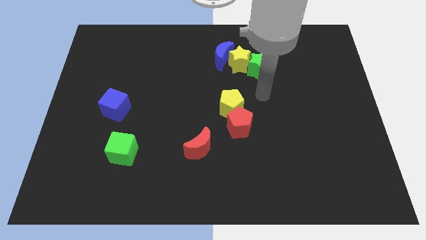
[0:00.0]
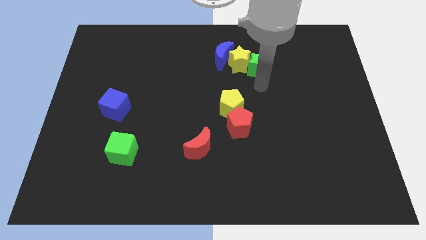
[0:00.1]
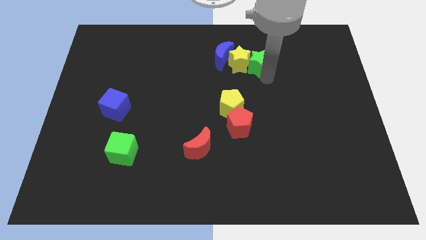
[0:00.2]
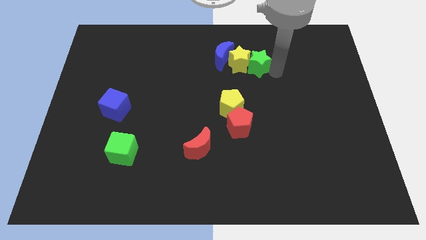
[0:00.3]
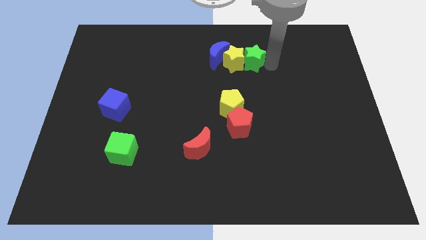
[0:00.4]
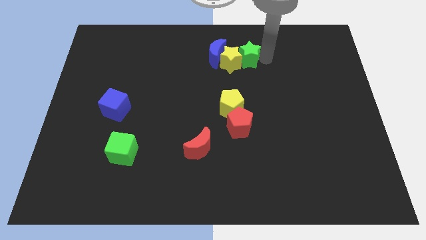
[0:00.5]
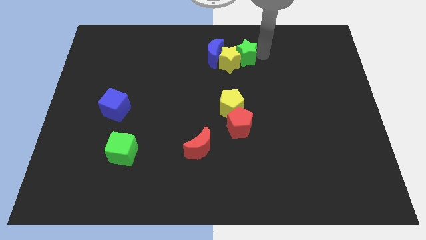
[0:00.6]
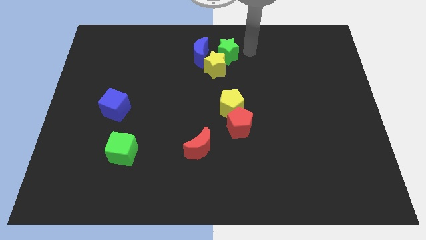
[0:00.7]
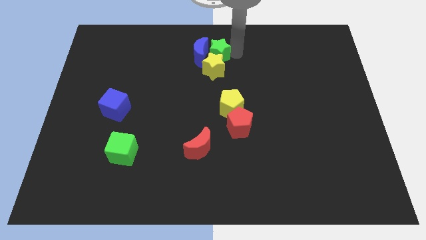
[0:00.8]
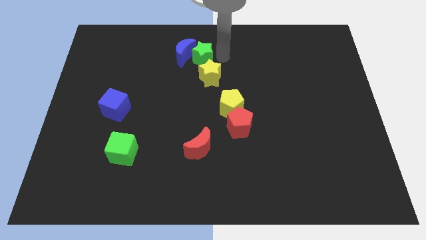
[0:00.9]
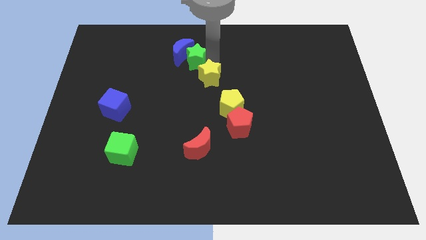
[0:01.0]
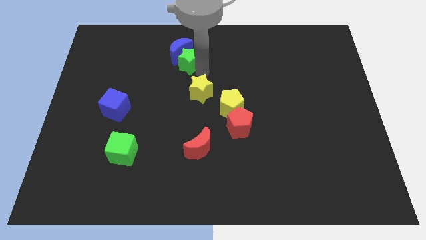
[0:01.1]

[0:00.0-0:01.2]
separate the yellow star from the blue moon and green star

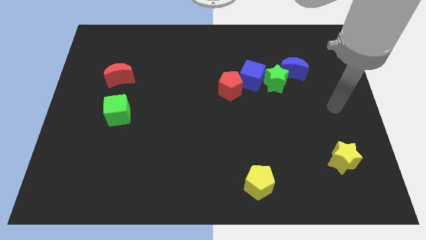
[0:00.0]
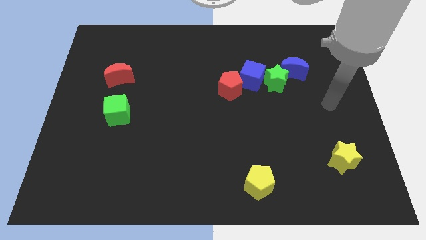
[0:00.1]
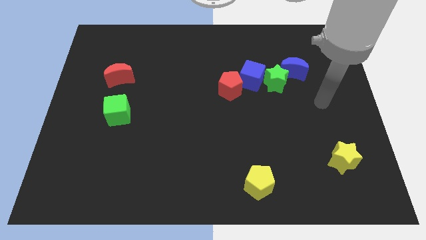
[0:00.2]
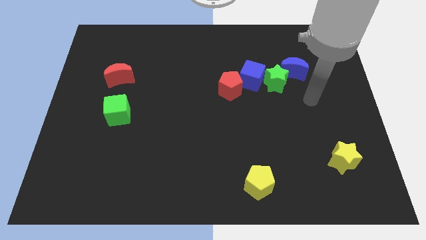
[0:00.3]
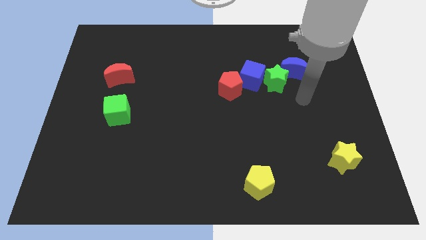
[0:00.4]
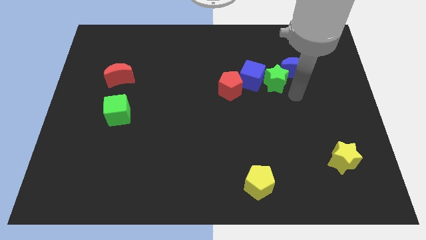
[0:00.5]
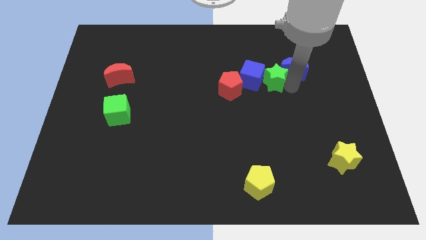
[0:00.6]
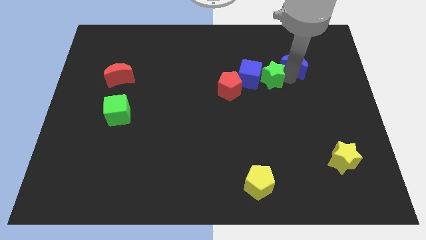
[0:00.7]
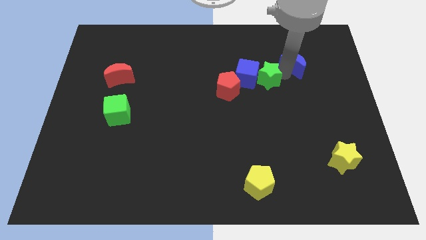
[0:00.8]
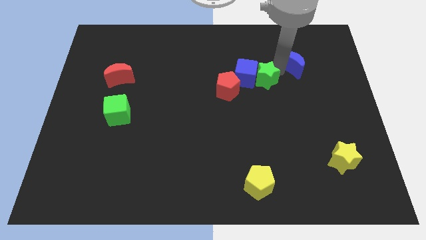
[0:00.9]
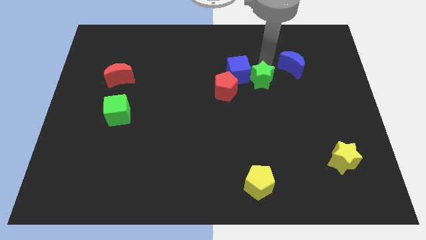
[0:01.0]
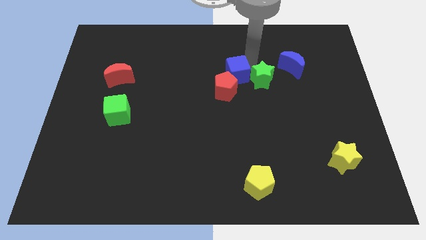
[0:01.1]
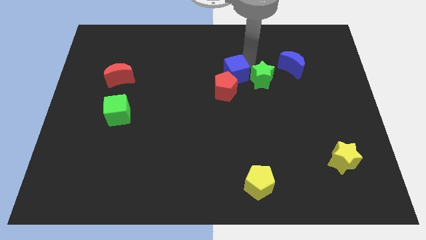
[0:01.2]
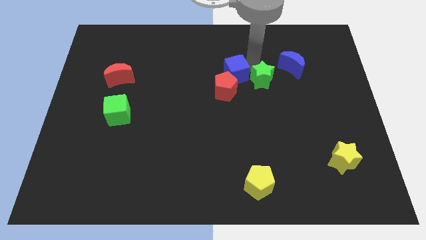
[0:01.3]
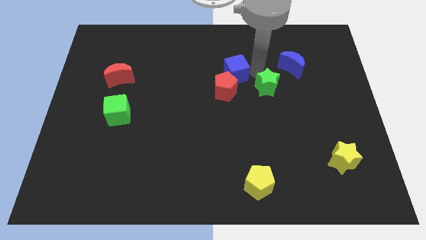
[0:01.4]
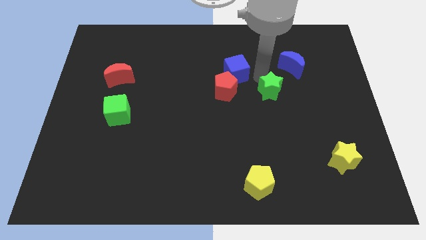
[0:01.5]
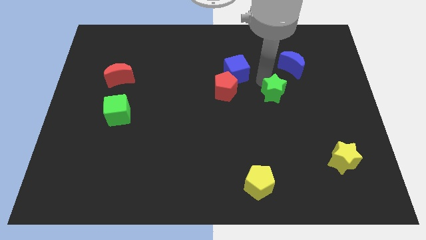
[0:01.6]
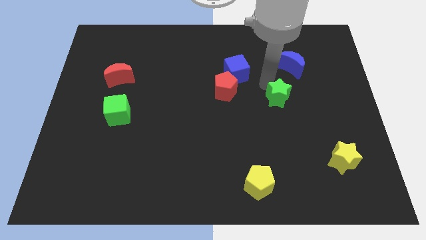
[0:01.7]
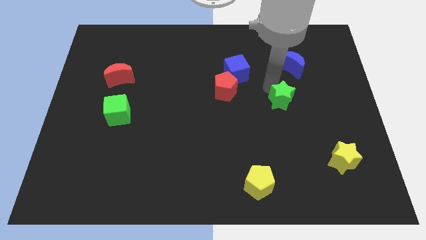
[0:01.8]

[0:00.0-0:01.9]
move the green star away from the blue cube and blue moon

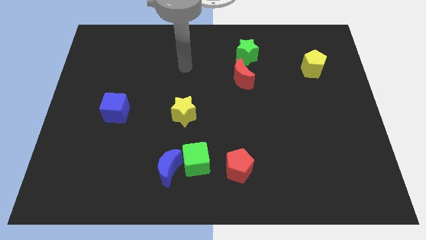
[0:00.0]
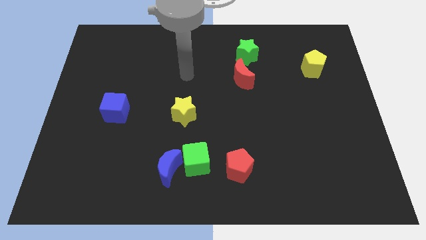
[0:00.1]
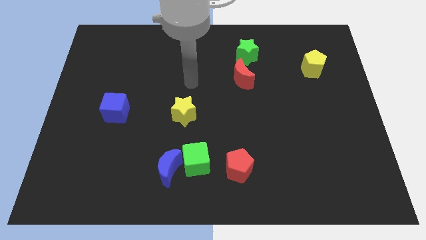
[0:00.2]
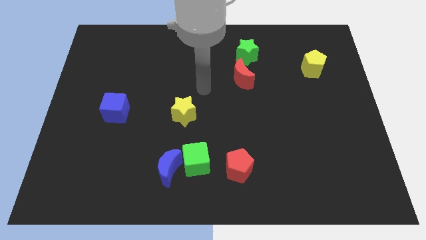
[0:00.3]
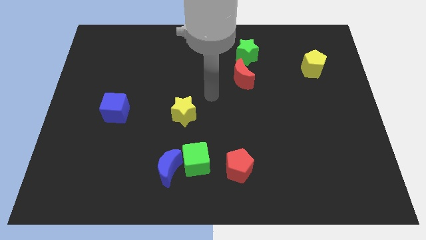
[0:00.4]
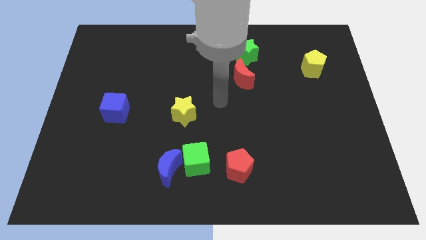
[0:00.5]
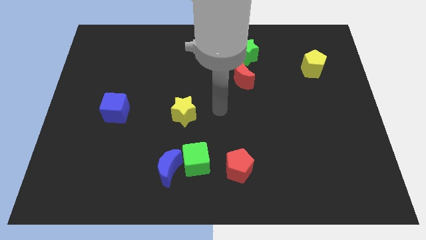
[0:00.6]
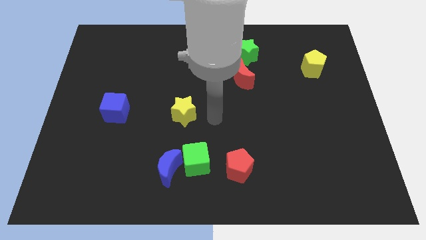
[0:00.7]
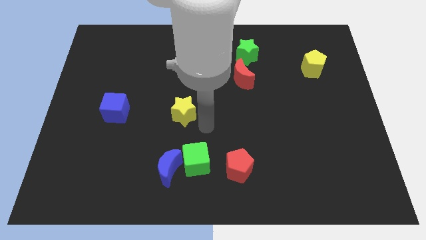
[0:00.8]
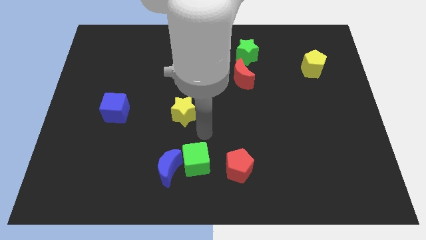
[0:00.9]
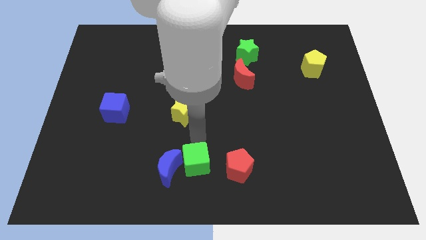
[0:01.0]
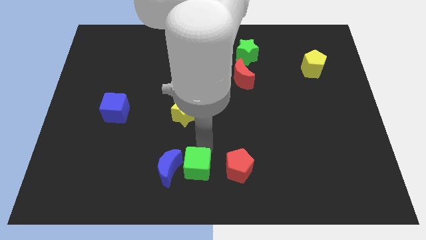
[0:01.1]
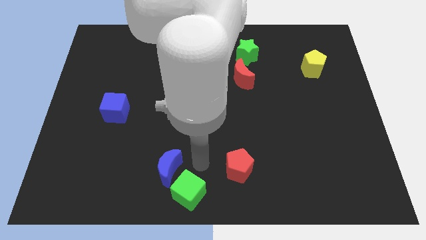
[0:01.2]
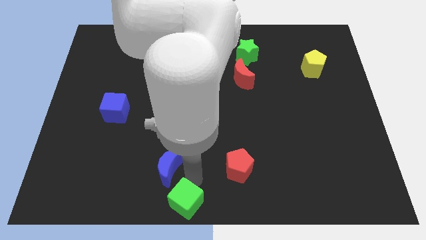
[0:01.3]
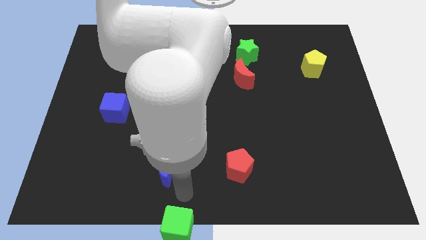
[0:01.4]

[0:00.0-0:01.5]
move the blue moon away from the green cube

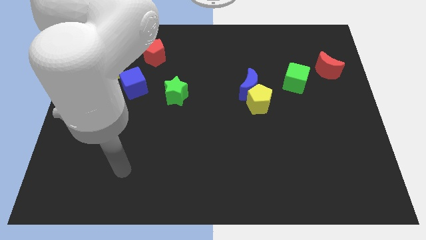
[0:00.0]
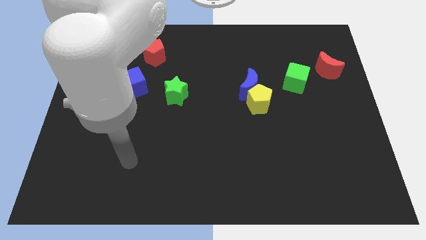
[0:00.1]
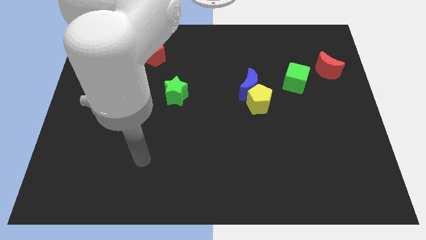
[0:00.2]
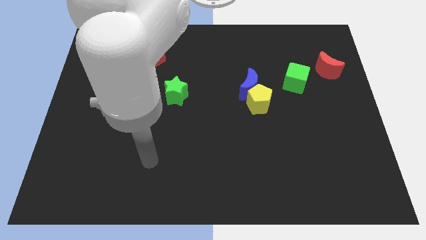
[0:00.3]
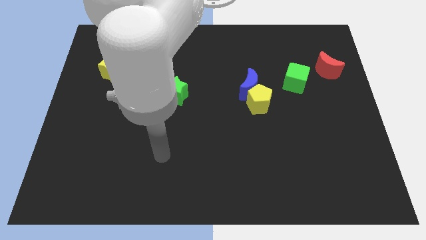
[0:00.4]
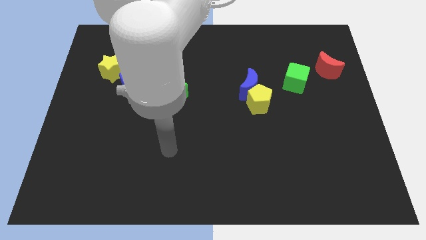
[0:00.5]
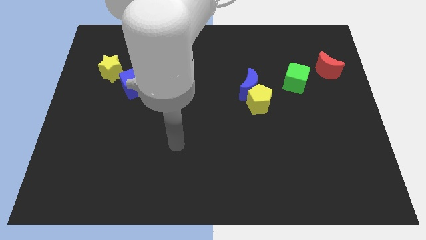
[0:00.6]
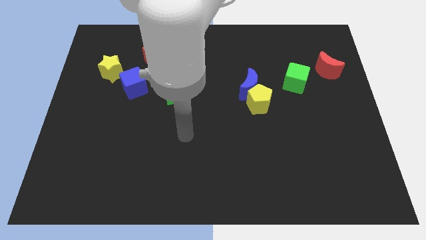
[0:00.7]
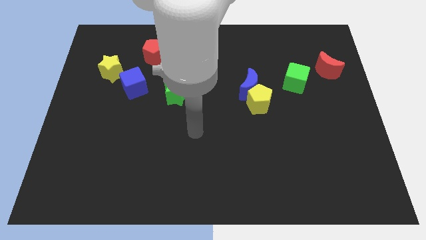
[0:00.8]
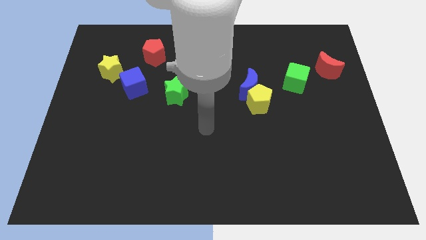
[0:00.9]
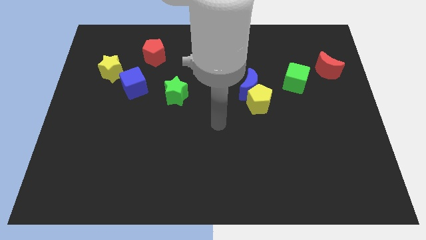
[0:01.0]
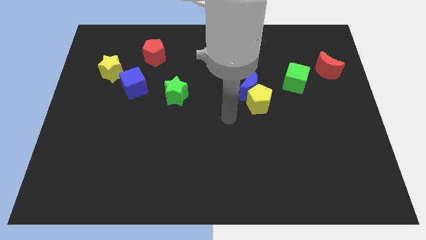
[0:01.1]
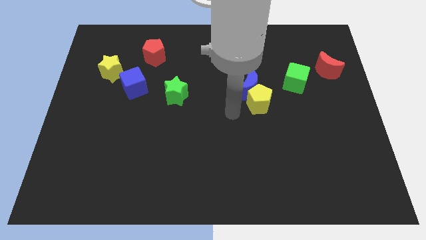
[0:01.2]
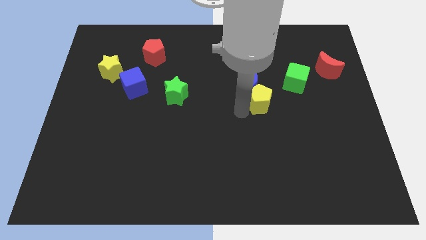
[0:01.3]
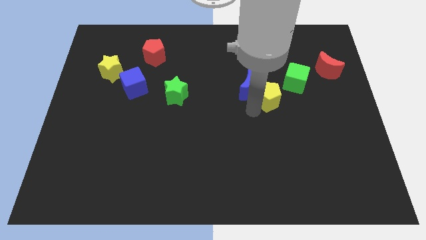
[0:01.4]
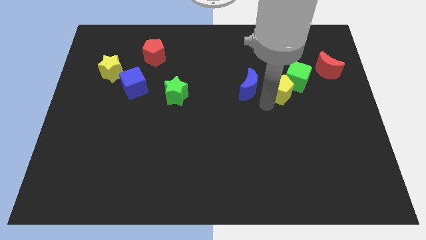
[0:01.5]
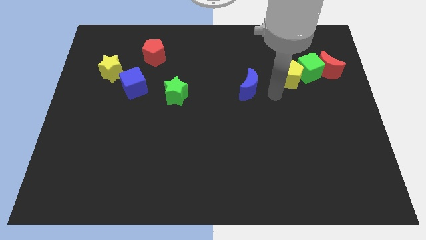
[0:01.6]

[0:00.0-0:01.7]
pull the blue moon apart from the yellow pentagon

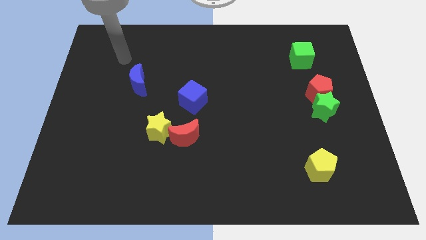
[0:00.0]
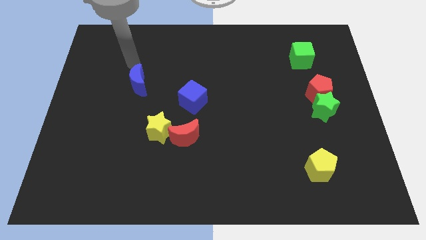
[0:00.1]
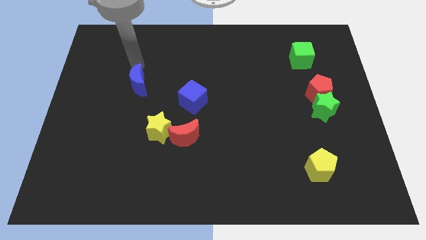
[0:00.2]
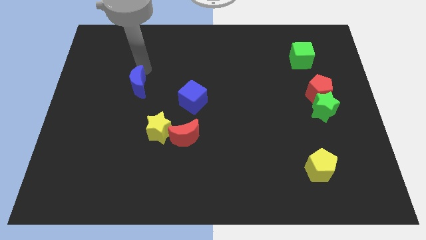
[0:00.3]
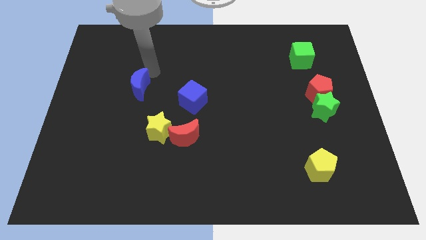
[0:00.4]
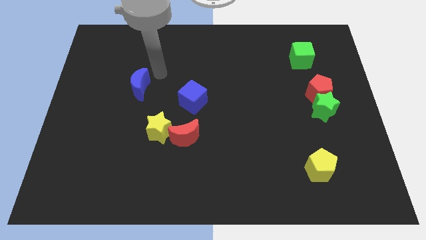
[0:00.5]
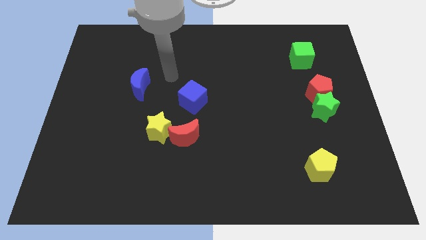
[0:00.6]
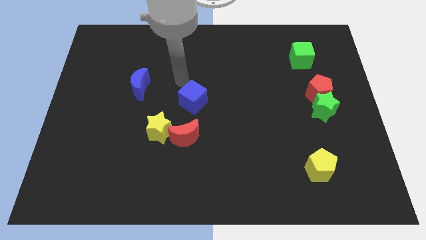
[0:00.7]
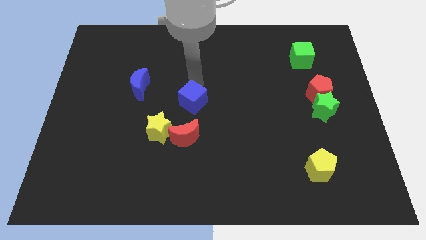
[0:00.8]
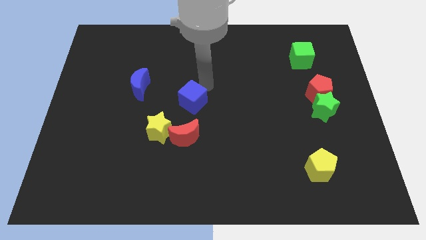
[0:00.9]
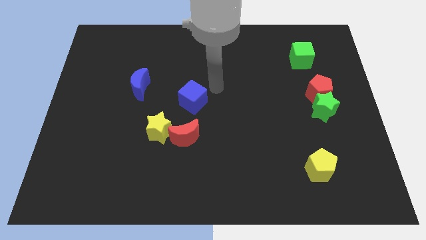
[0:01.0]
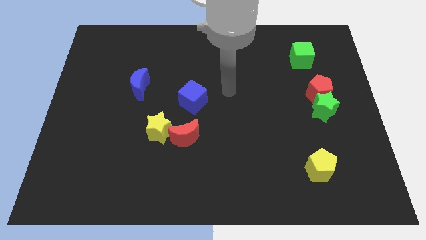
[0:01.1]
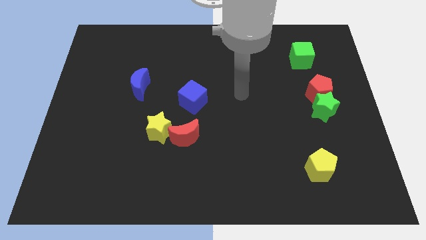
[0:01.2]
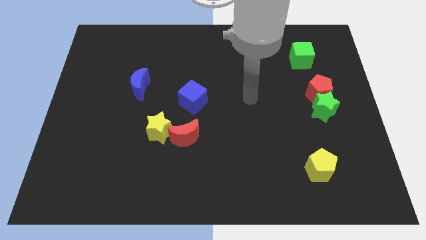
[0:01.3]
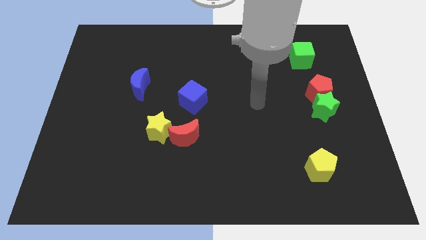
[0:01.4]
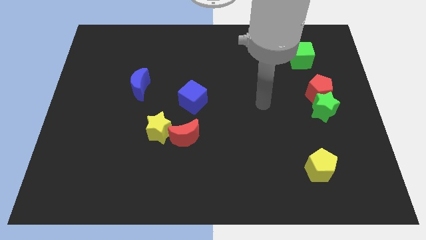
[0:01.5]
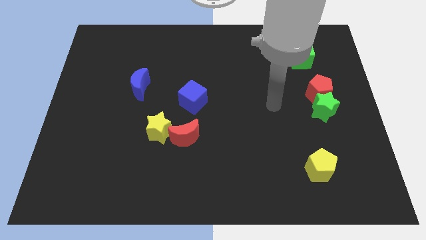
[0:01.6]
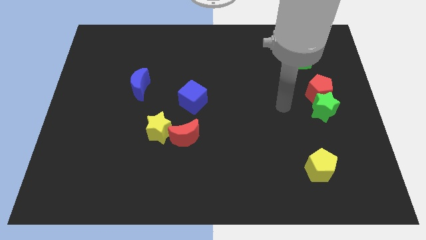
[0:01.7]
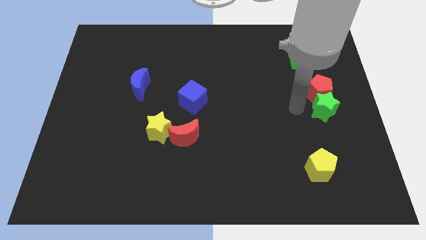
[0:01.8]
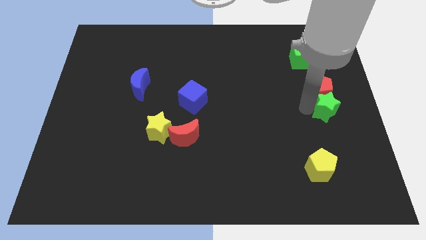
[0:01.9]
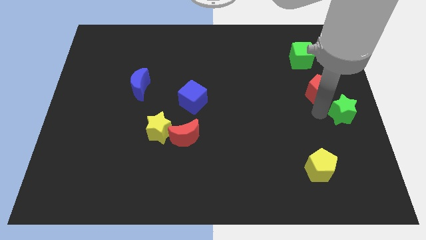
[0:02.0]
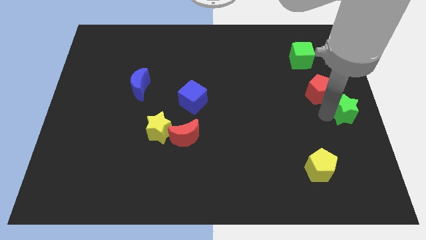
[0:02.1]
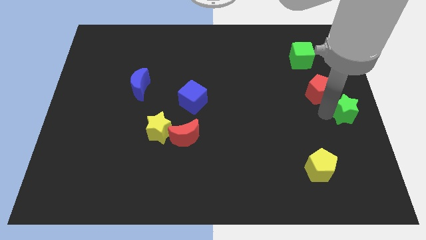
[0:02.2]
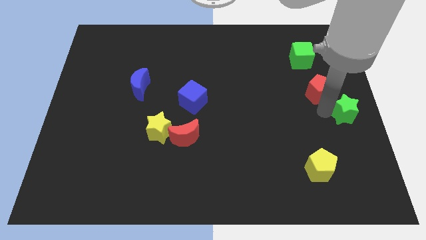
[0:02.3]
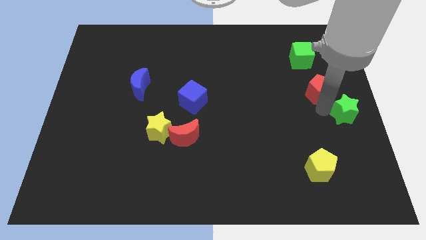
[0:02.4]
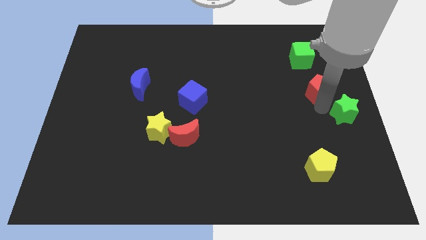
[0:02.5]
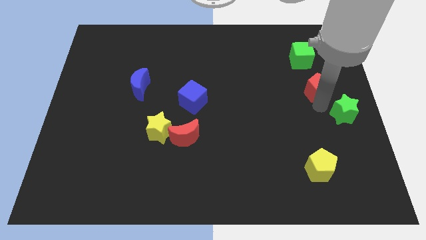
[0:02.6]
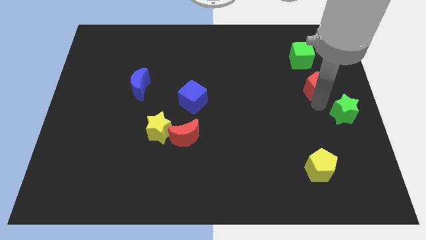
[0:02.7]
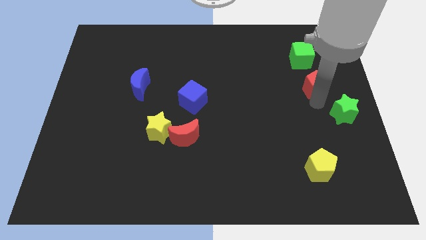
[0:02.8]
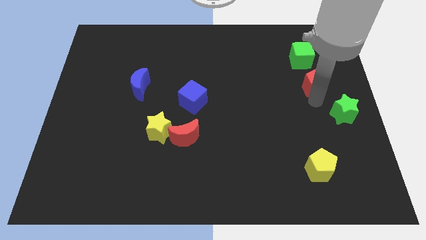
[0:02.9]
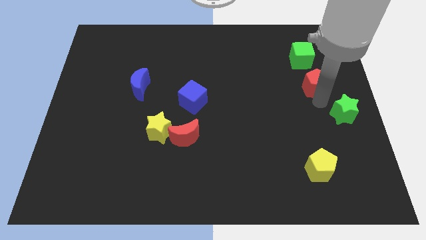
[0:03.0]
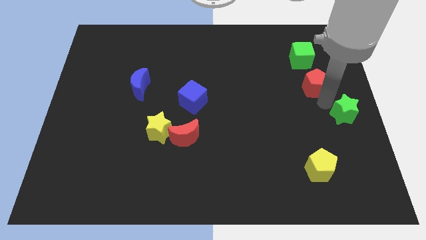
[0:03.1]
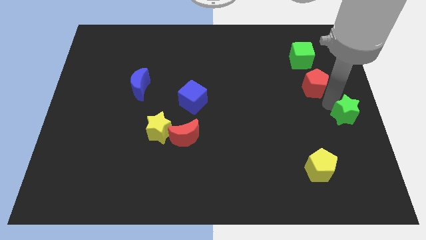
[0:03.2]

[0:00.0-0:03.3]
move the red pentagon away from the green star
